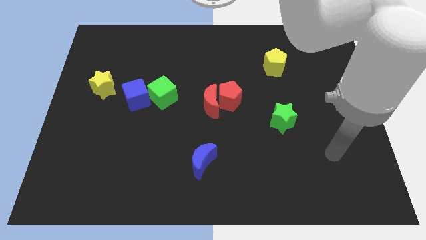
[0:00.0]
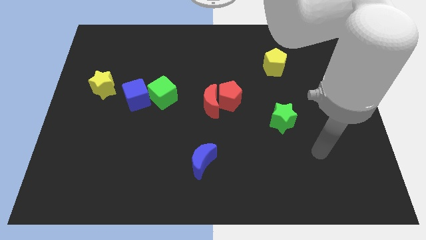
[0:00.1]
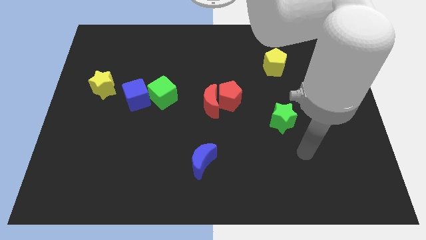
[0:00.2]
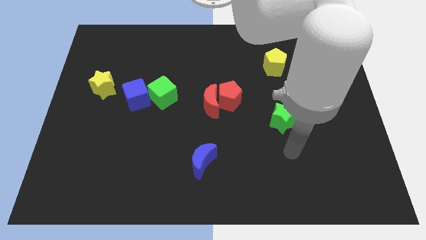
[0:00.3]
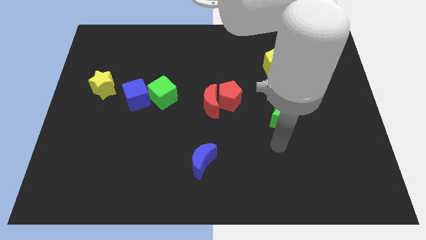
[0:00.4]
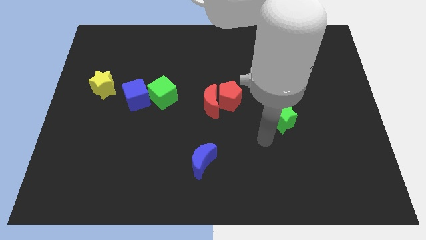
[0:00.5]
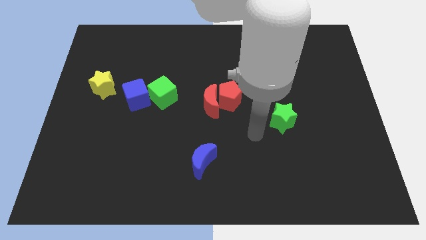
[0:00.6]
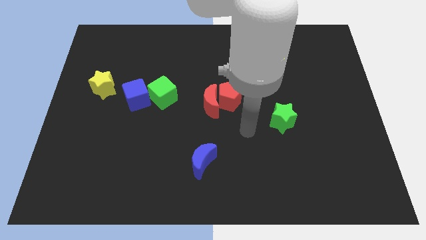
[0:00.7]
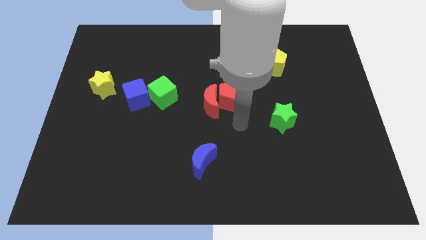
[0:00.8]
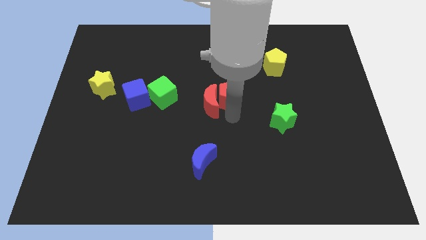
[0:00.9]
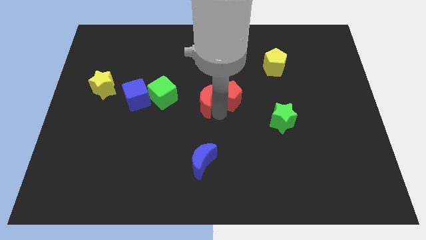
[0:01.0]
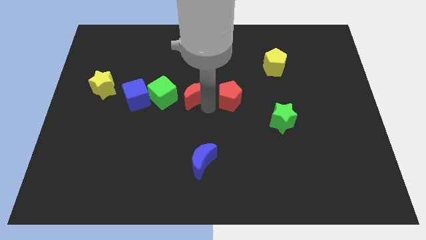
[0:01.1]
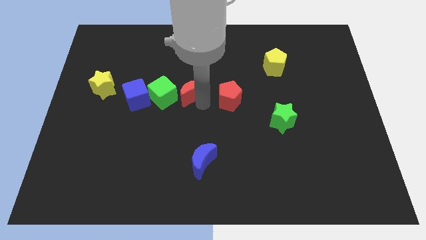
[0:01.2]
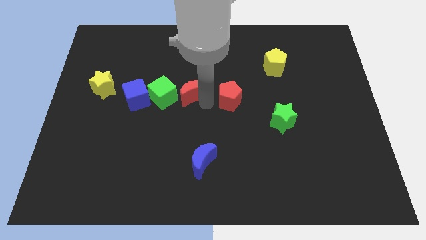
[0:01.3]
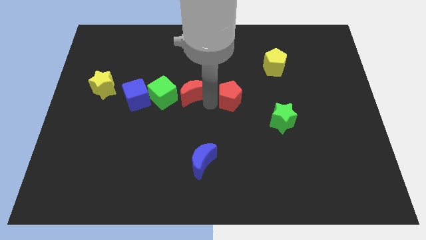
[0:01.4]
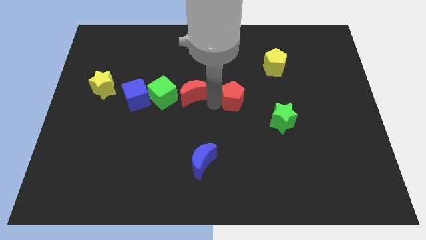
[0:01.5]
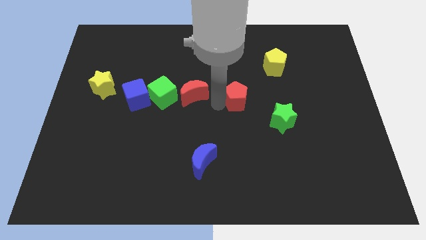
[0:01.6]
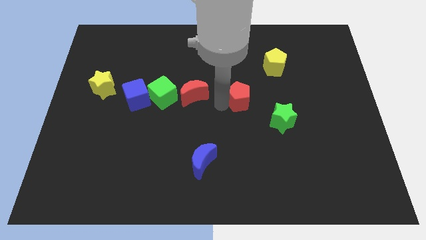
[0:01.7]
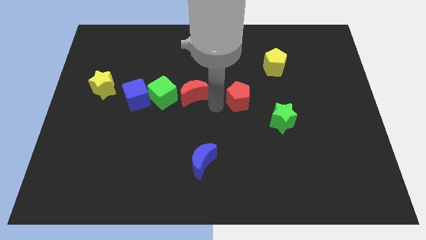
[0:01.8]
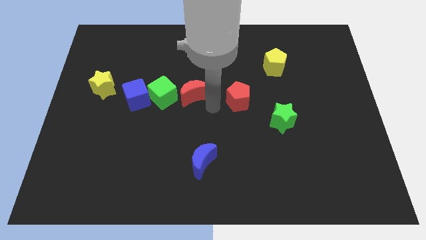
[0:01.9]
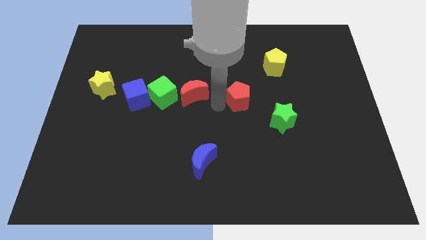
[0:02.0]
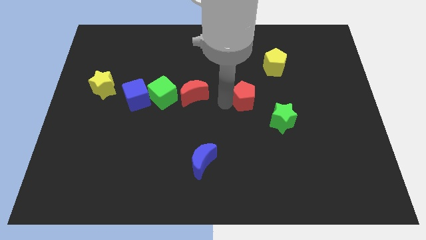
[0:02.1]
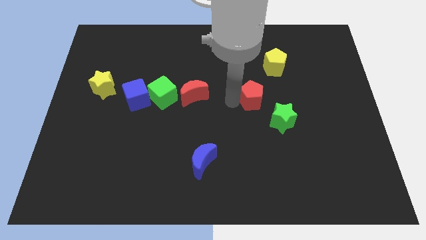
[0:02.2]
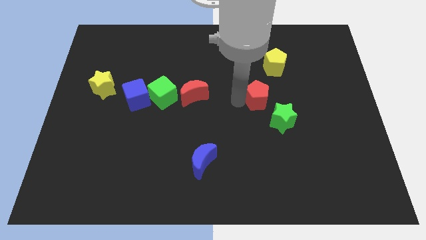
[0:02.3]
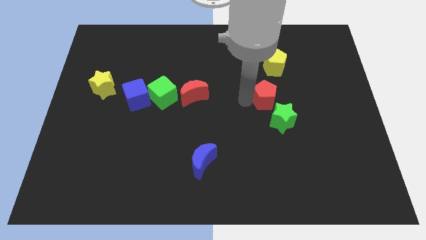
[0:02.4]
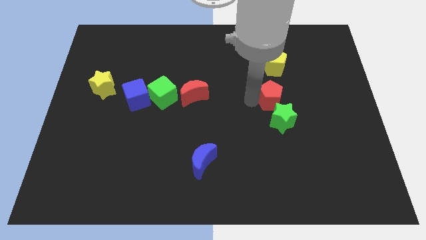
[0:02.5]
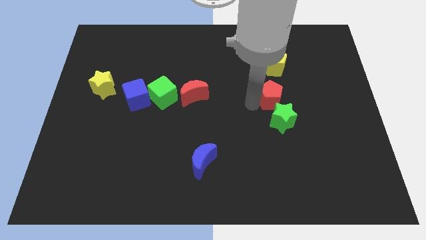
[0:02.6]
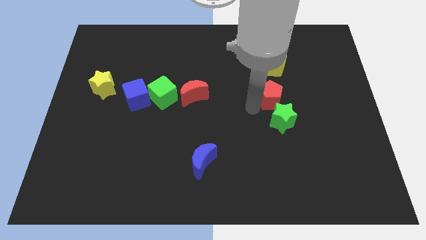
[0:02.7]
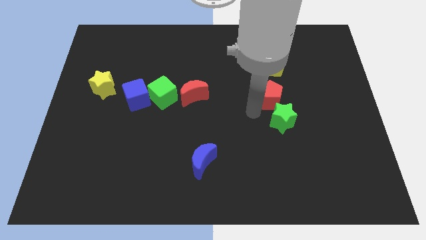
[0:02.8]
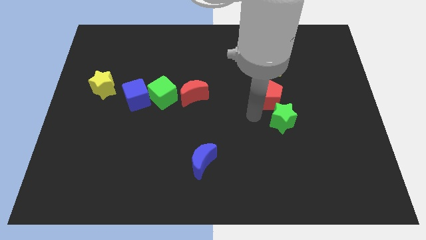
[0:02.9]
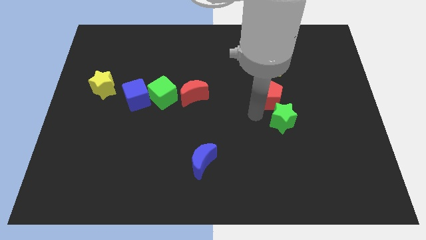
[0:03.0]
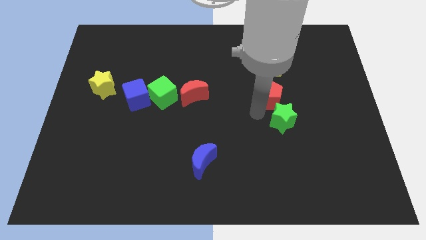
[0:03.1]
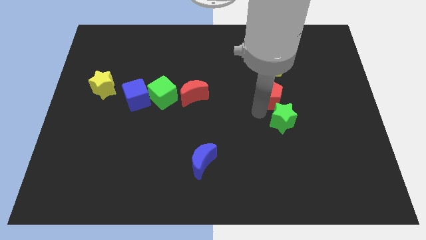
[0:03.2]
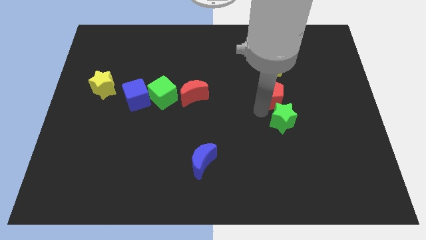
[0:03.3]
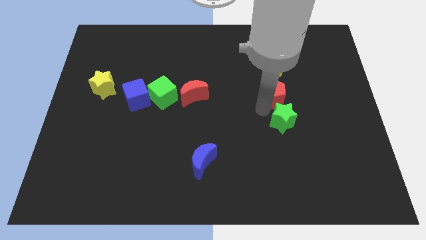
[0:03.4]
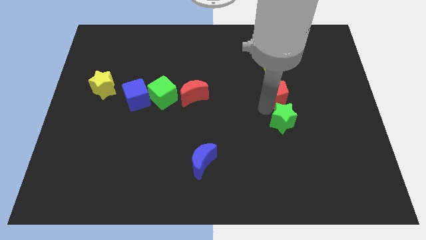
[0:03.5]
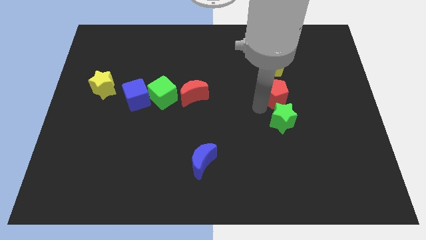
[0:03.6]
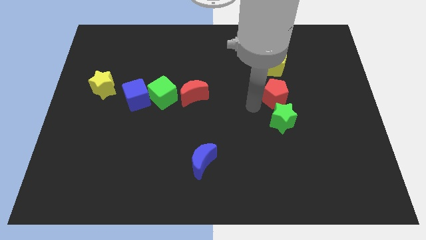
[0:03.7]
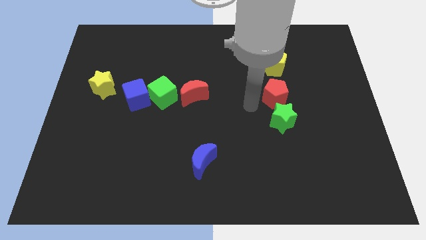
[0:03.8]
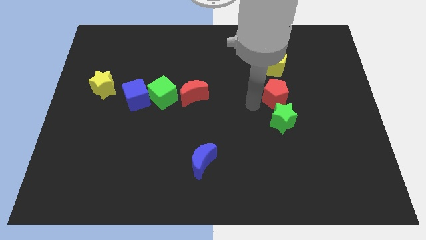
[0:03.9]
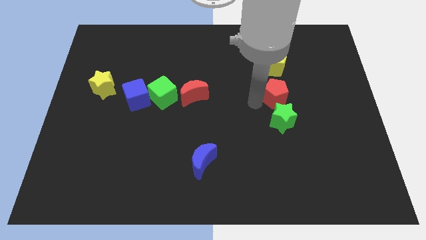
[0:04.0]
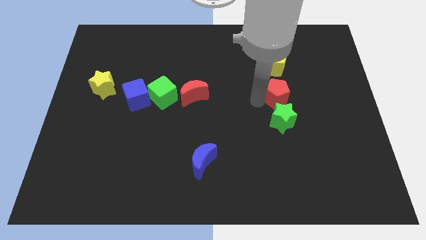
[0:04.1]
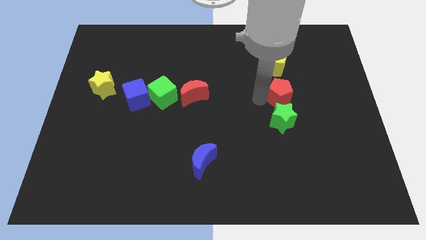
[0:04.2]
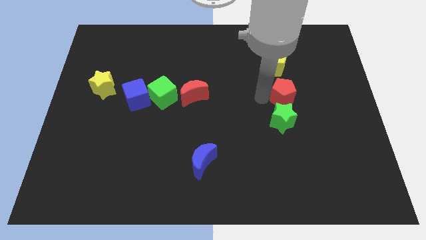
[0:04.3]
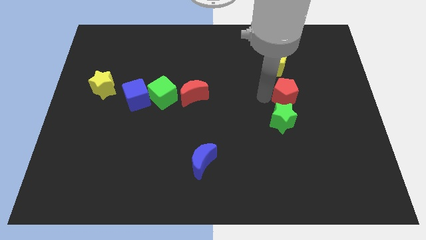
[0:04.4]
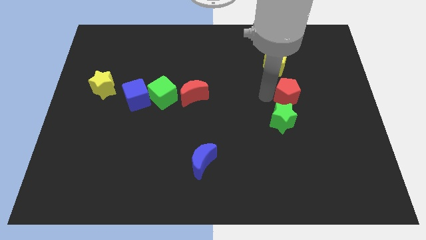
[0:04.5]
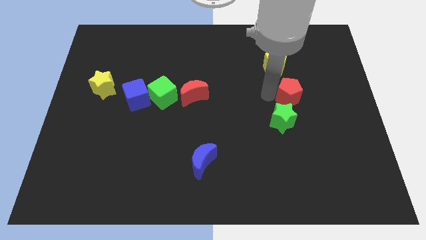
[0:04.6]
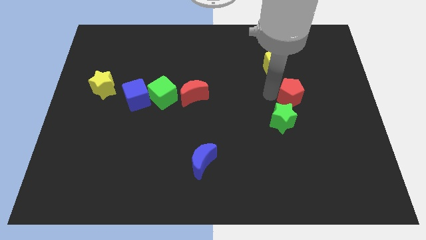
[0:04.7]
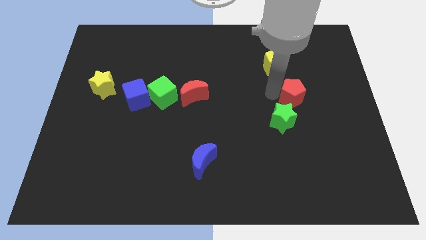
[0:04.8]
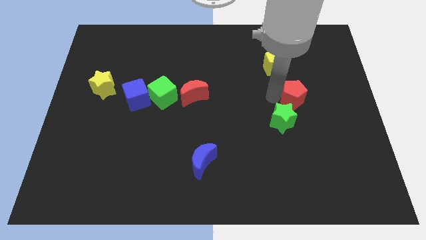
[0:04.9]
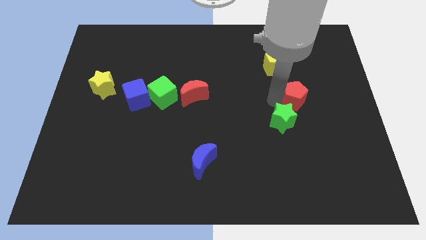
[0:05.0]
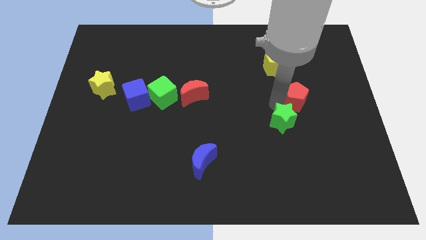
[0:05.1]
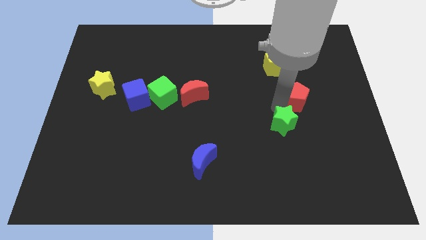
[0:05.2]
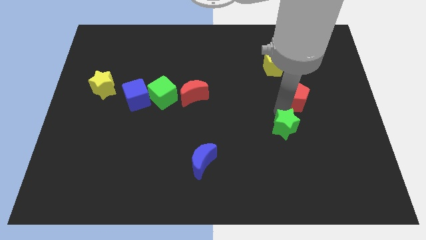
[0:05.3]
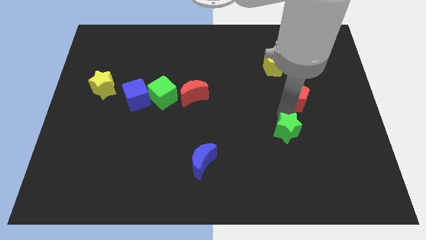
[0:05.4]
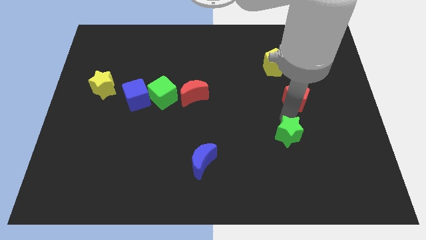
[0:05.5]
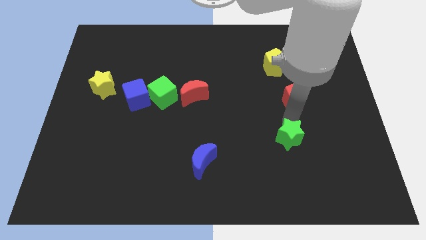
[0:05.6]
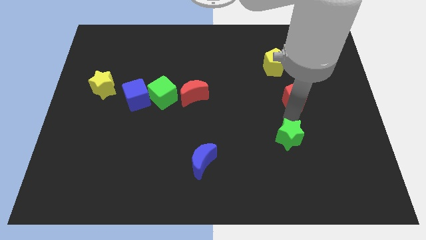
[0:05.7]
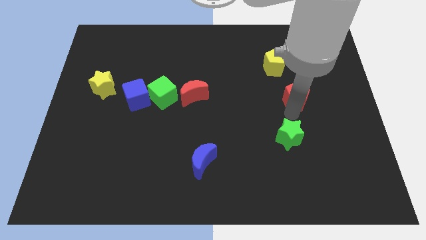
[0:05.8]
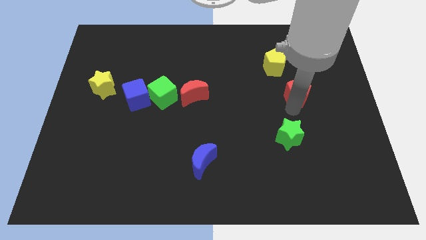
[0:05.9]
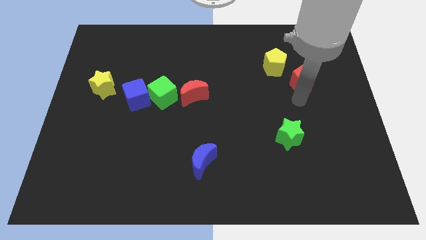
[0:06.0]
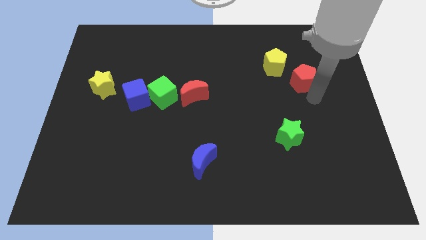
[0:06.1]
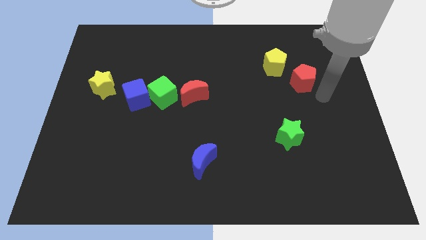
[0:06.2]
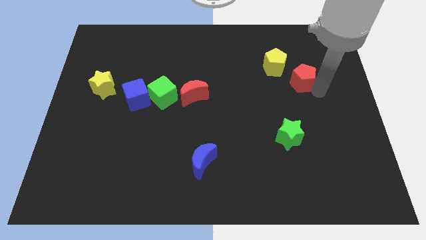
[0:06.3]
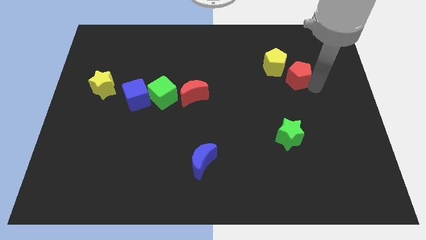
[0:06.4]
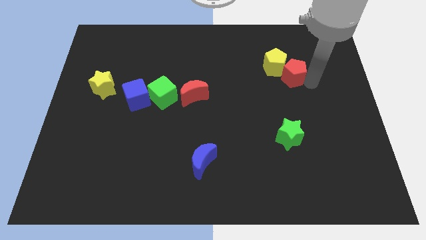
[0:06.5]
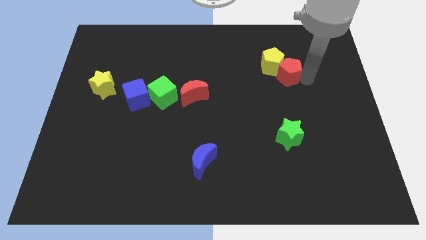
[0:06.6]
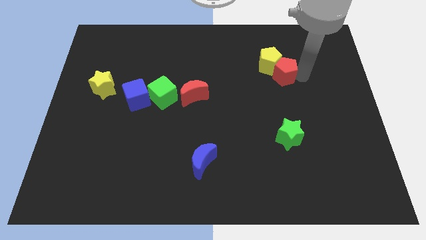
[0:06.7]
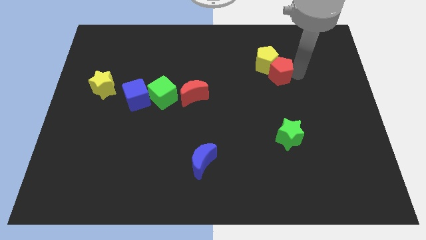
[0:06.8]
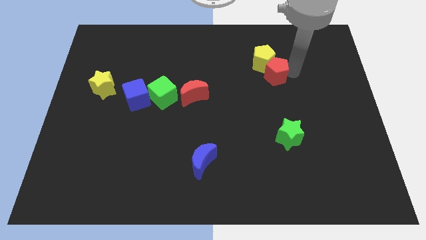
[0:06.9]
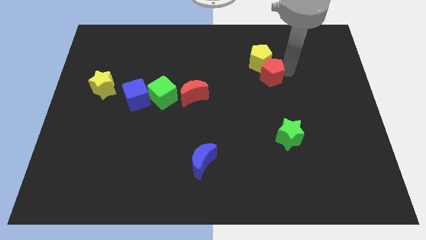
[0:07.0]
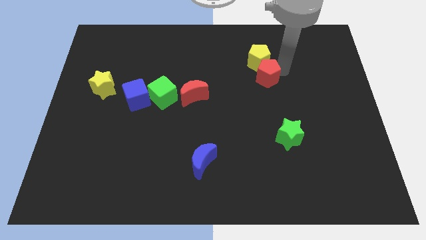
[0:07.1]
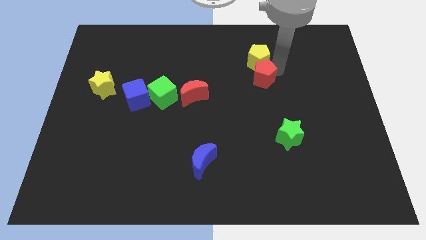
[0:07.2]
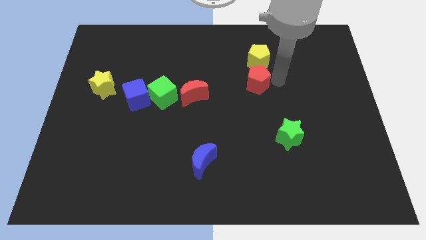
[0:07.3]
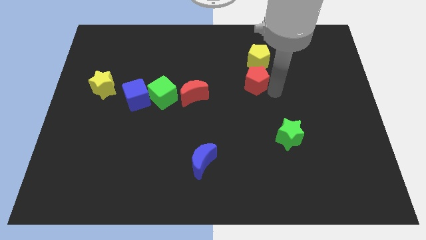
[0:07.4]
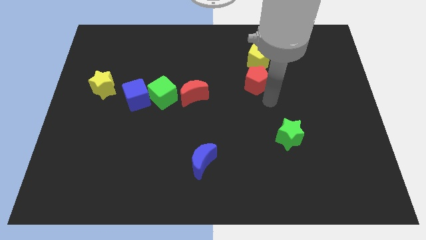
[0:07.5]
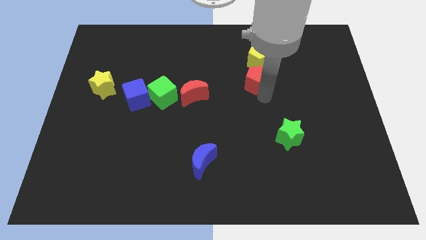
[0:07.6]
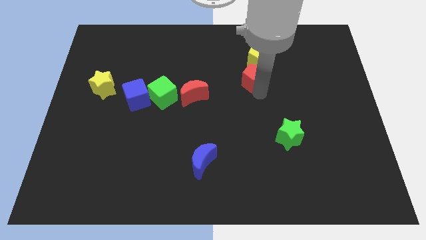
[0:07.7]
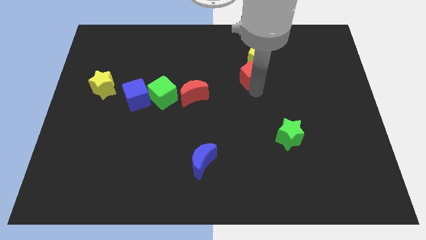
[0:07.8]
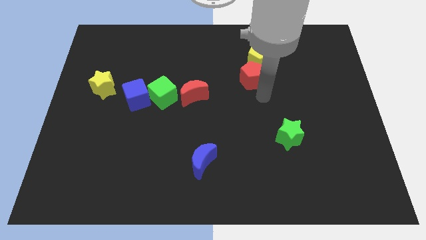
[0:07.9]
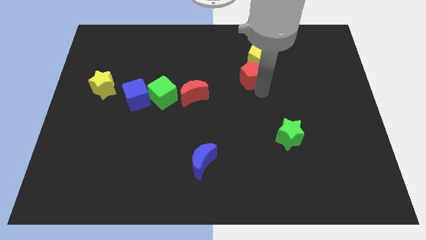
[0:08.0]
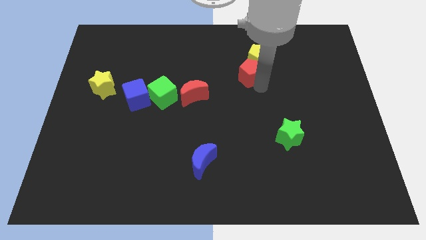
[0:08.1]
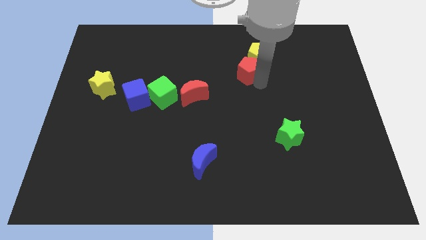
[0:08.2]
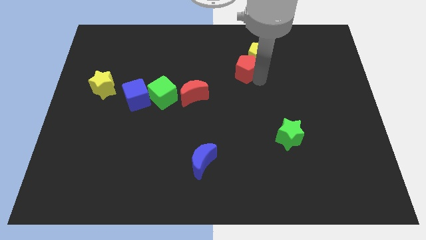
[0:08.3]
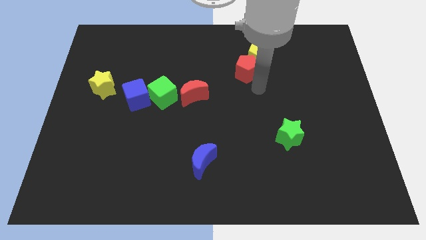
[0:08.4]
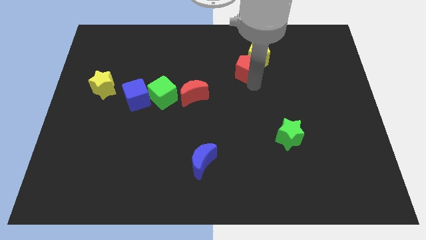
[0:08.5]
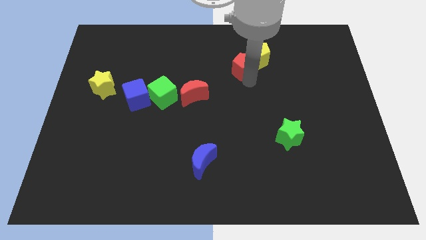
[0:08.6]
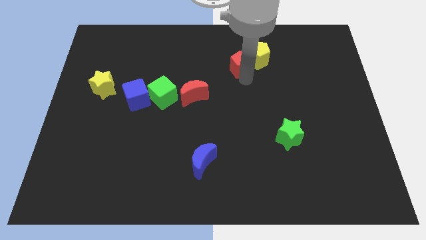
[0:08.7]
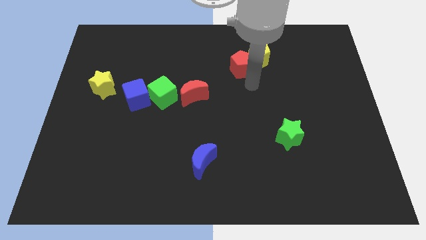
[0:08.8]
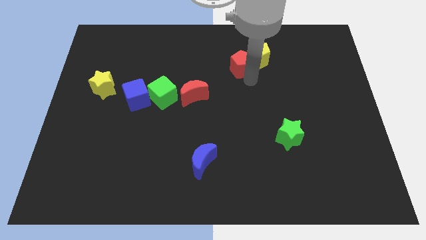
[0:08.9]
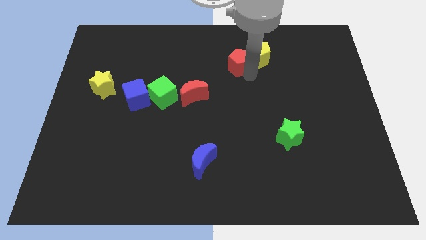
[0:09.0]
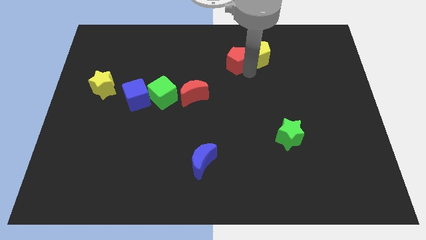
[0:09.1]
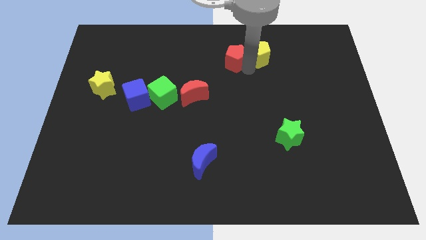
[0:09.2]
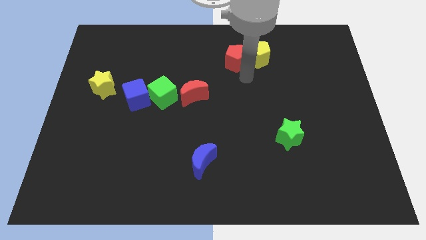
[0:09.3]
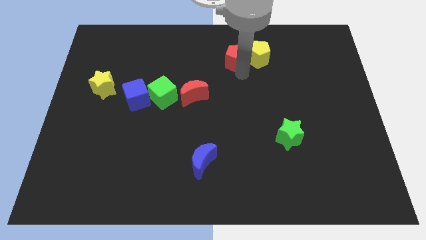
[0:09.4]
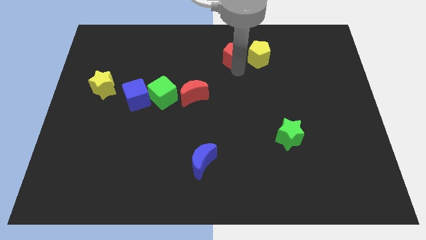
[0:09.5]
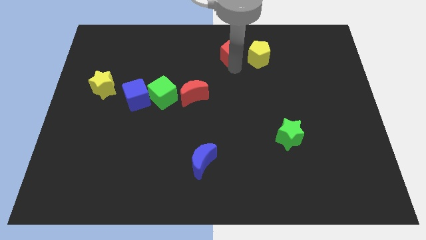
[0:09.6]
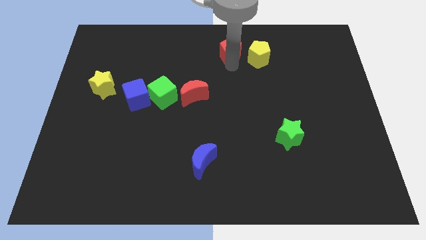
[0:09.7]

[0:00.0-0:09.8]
move the red pentagon to the top
